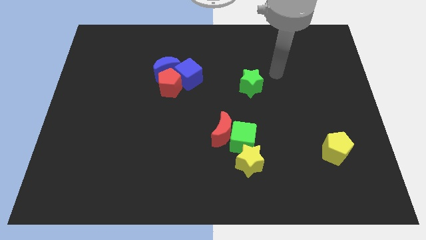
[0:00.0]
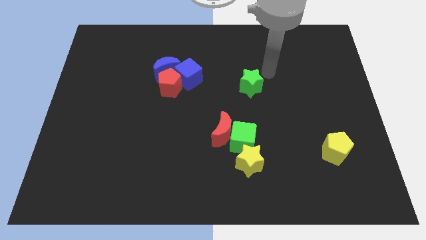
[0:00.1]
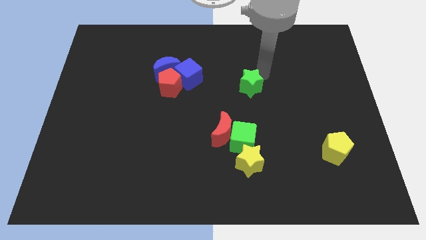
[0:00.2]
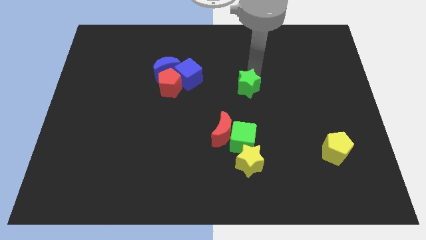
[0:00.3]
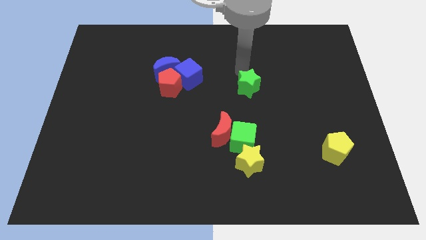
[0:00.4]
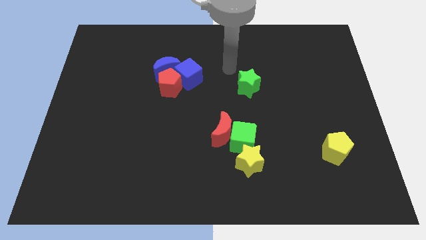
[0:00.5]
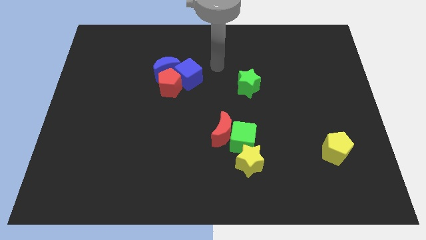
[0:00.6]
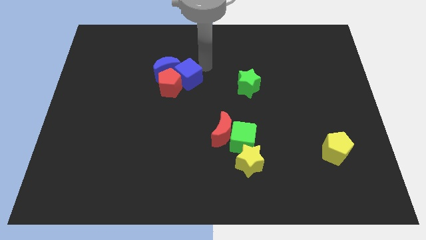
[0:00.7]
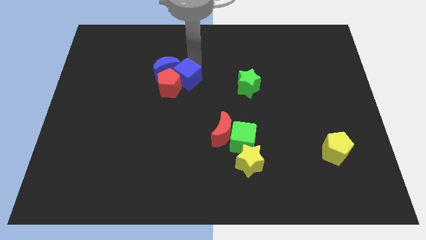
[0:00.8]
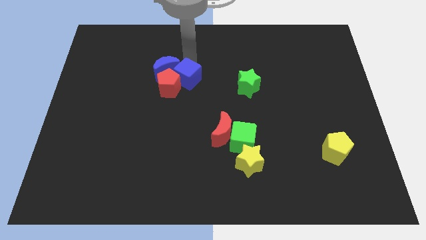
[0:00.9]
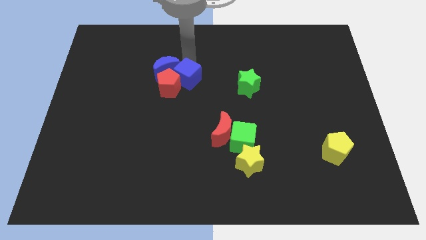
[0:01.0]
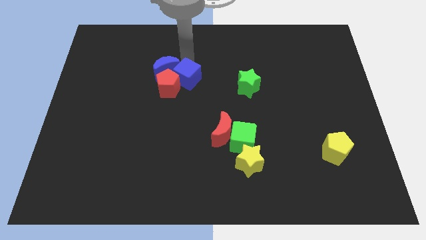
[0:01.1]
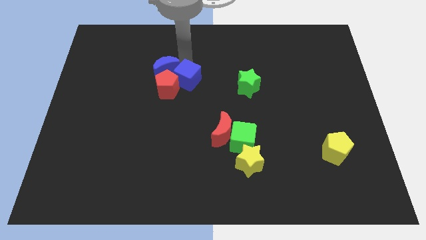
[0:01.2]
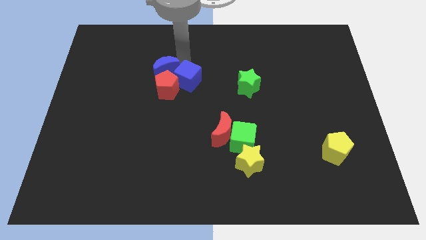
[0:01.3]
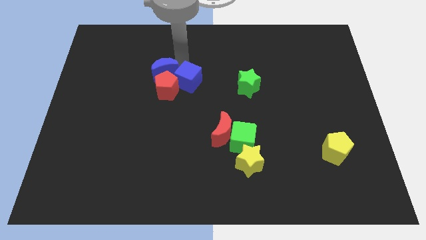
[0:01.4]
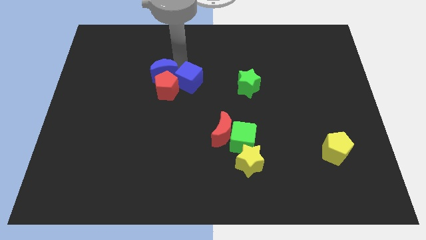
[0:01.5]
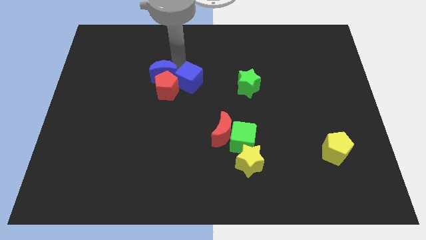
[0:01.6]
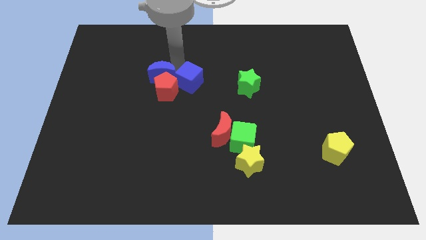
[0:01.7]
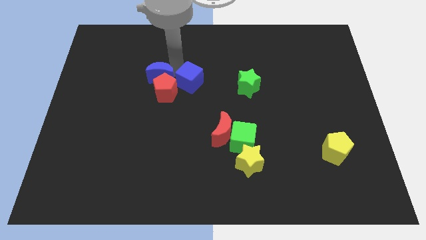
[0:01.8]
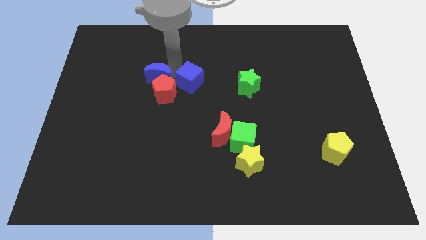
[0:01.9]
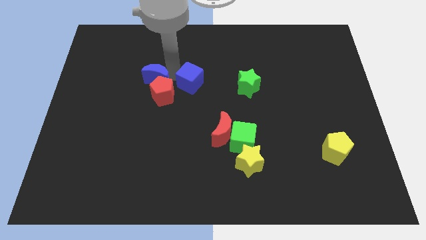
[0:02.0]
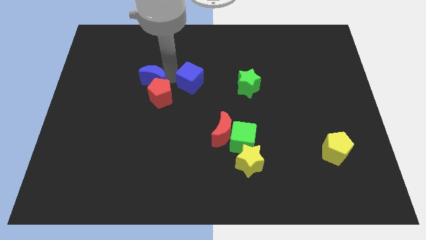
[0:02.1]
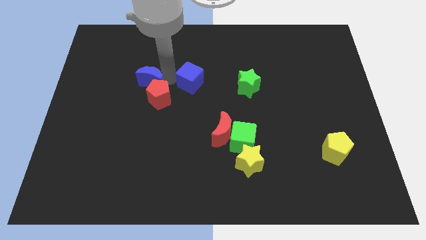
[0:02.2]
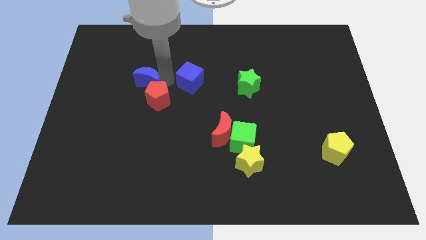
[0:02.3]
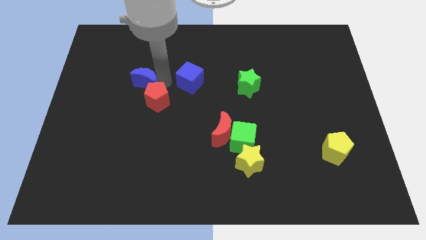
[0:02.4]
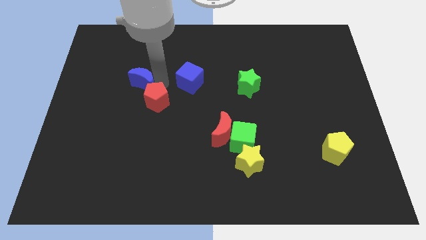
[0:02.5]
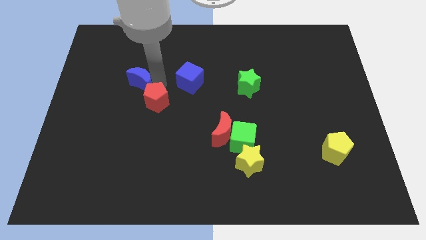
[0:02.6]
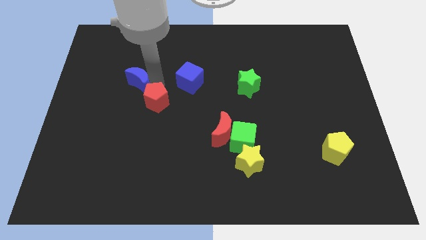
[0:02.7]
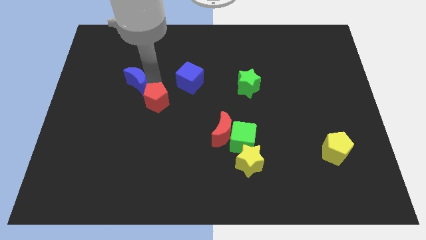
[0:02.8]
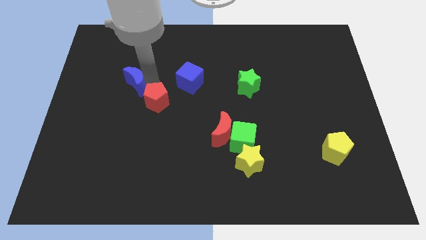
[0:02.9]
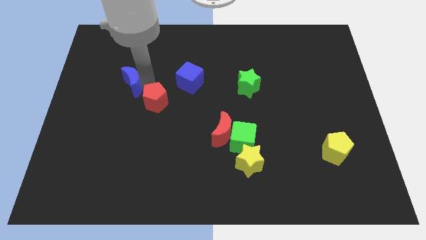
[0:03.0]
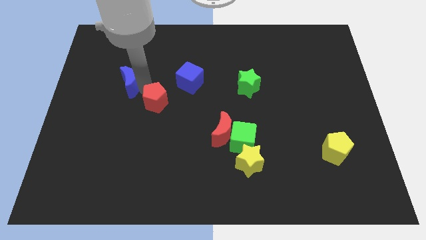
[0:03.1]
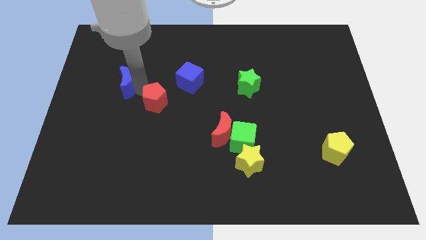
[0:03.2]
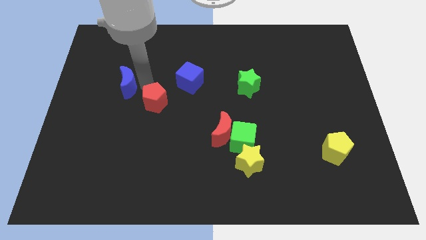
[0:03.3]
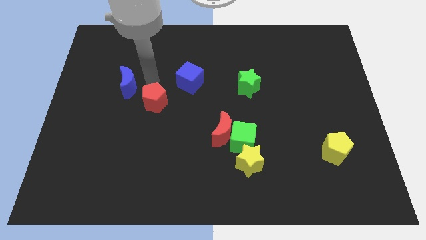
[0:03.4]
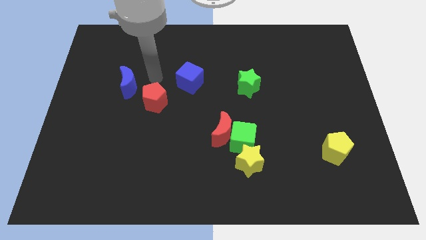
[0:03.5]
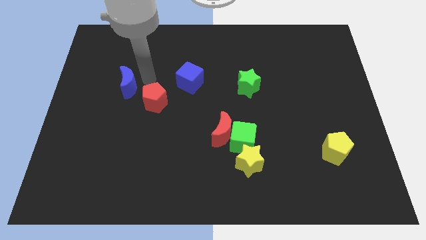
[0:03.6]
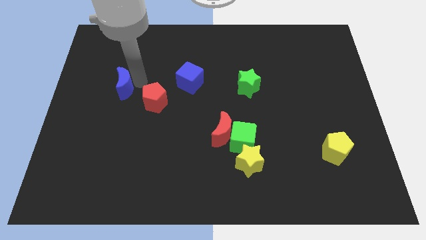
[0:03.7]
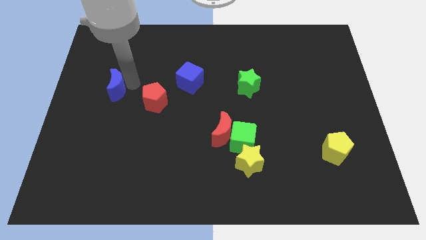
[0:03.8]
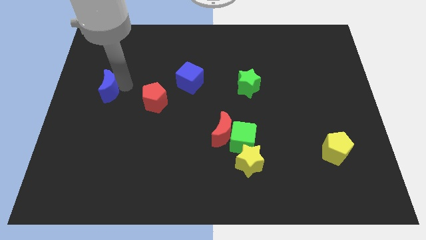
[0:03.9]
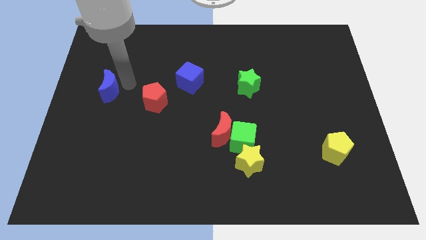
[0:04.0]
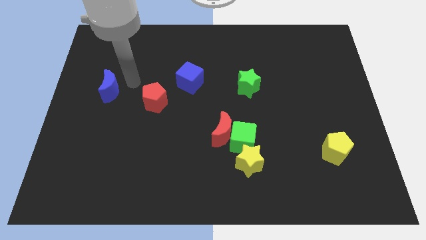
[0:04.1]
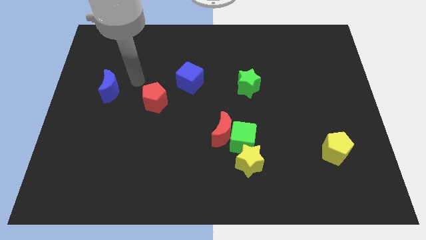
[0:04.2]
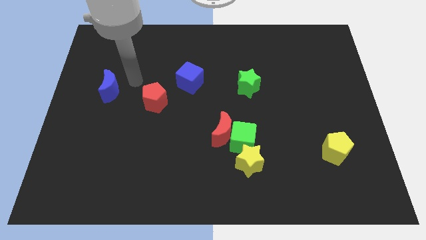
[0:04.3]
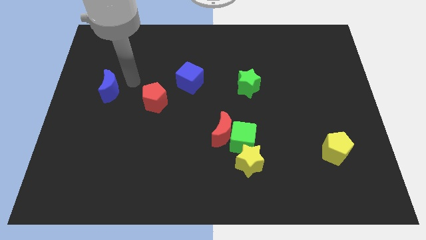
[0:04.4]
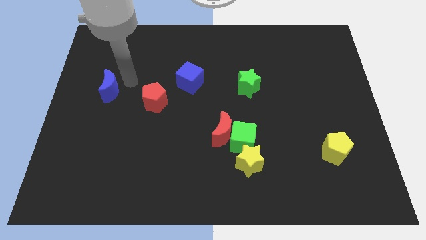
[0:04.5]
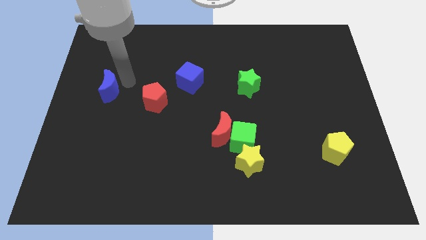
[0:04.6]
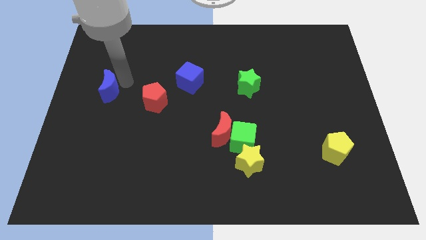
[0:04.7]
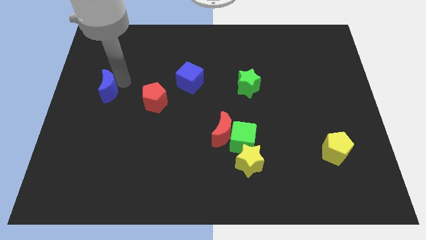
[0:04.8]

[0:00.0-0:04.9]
put the blue moon to the center left

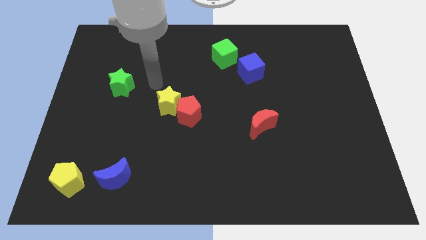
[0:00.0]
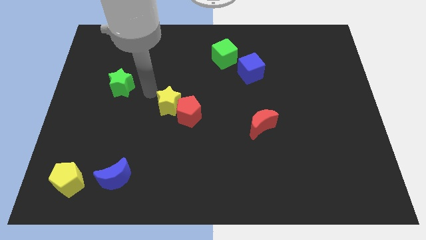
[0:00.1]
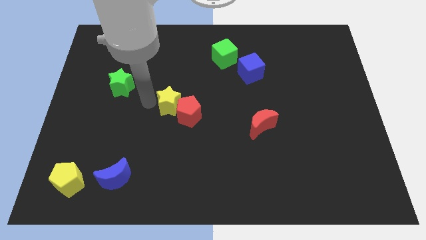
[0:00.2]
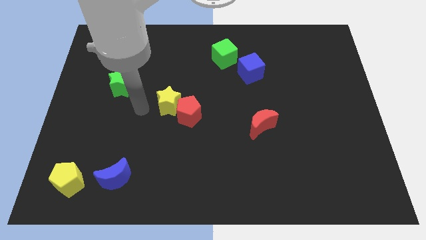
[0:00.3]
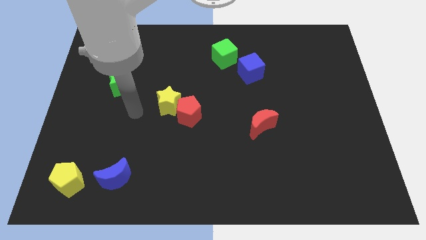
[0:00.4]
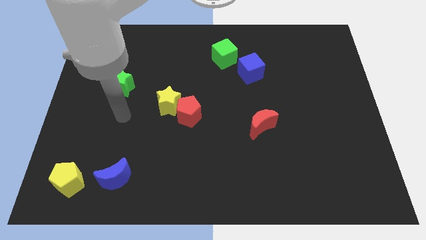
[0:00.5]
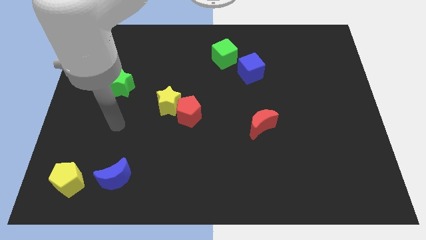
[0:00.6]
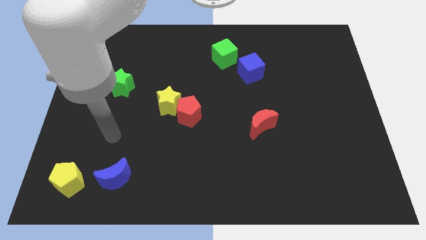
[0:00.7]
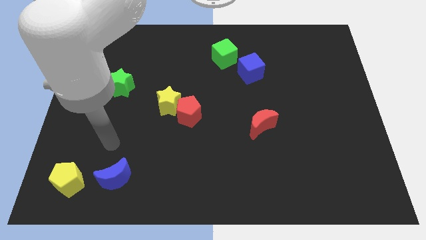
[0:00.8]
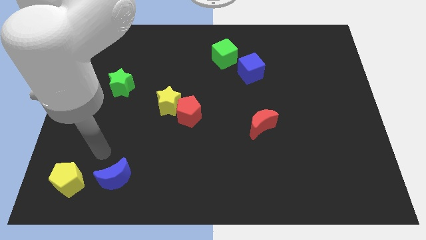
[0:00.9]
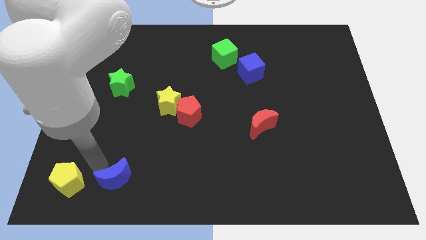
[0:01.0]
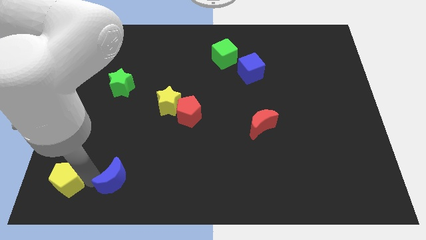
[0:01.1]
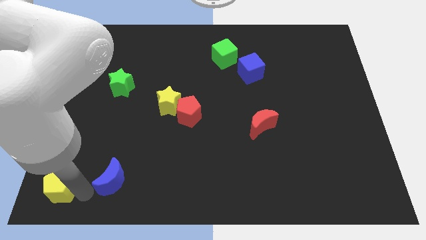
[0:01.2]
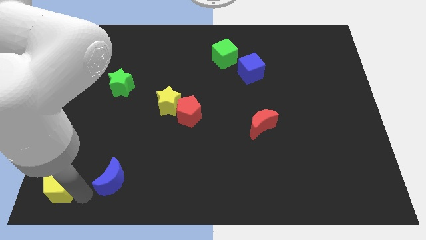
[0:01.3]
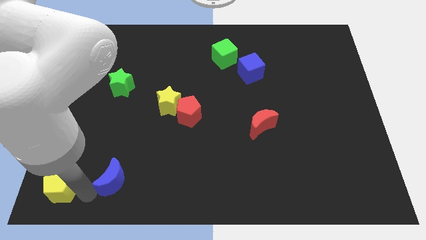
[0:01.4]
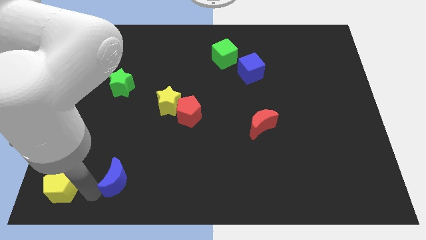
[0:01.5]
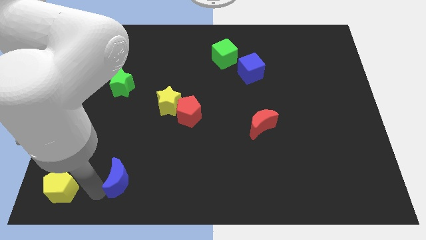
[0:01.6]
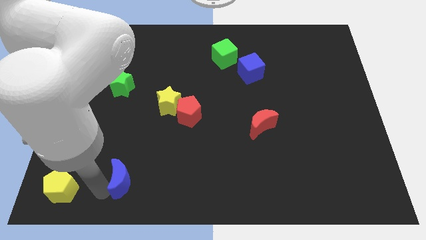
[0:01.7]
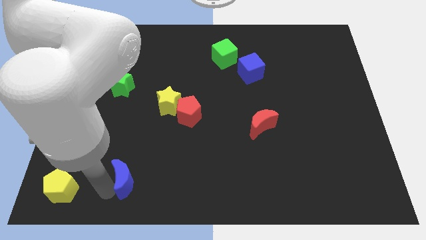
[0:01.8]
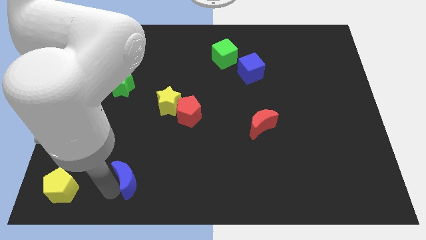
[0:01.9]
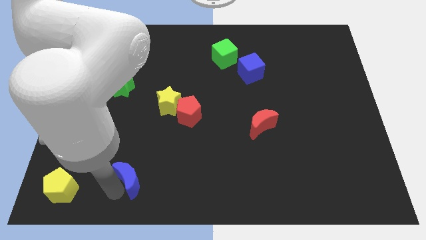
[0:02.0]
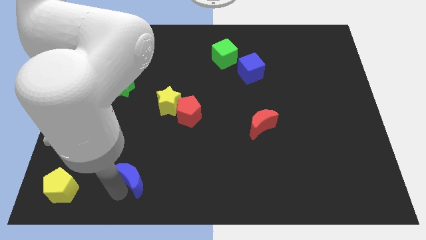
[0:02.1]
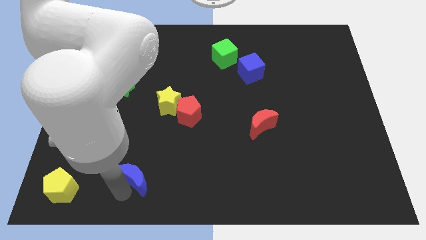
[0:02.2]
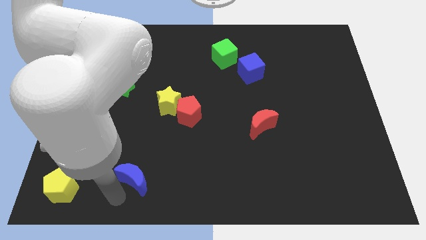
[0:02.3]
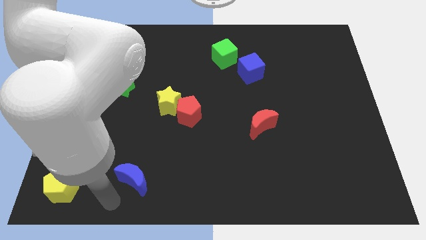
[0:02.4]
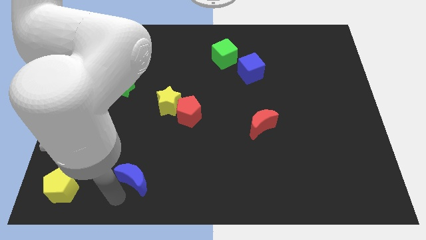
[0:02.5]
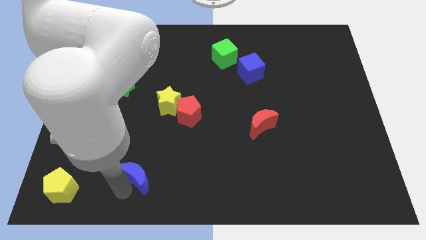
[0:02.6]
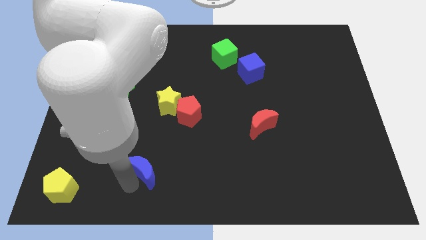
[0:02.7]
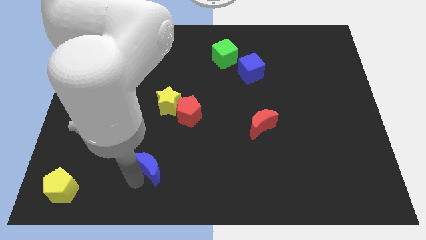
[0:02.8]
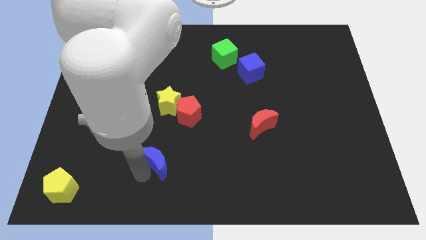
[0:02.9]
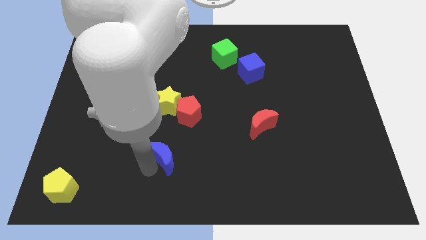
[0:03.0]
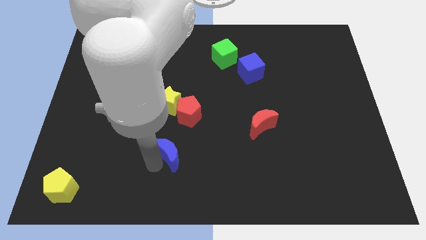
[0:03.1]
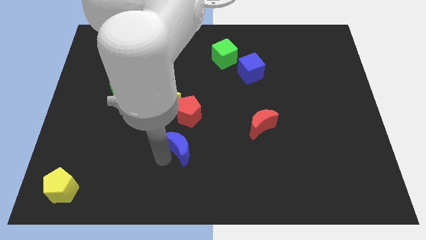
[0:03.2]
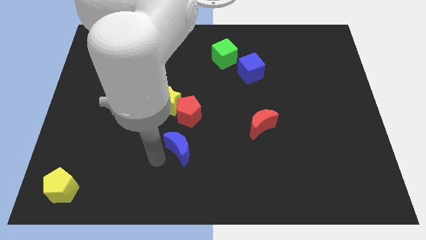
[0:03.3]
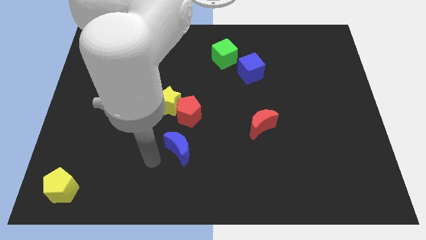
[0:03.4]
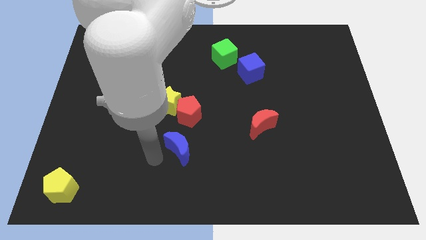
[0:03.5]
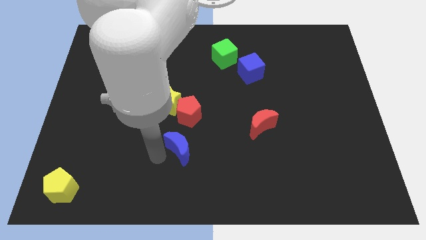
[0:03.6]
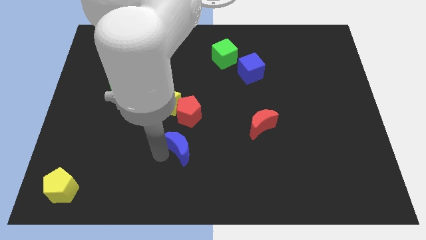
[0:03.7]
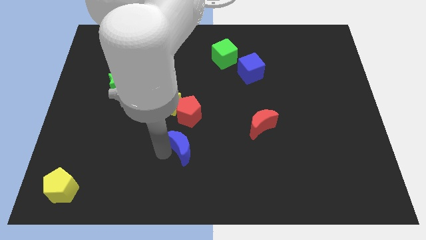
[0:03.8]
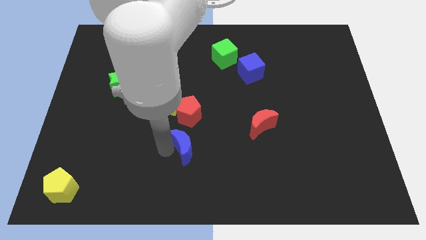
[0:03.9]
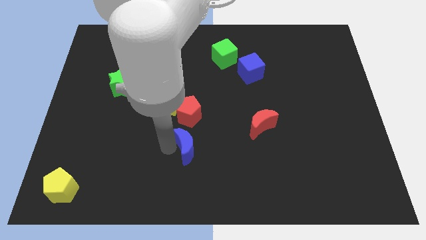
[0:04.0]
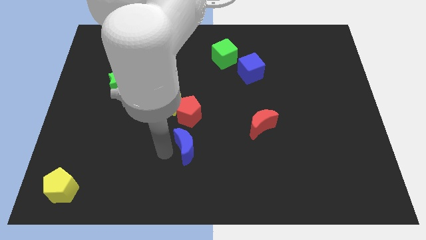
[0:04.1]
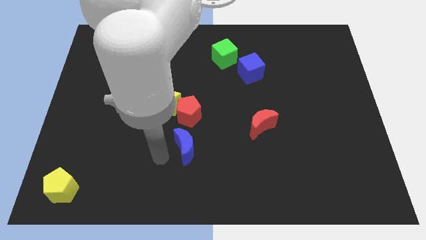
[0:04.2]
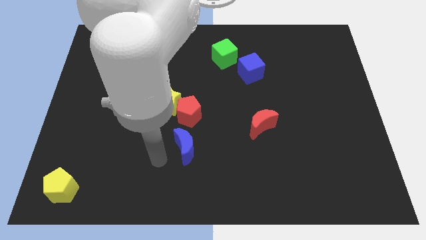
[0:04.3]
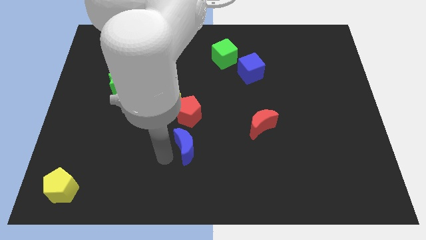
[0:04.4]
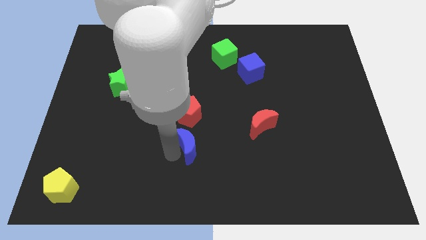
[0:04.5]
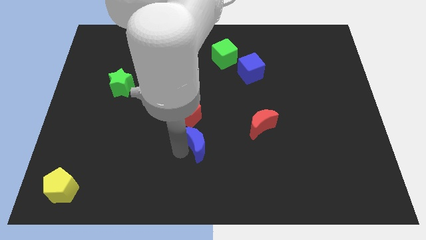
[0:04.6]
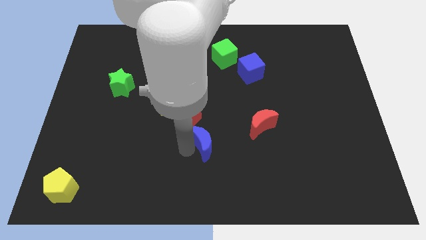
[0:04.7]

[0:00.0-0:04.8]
slide the blue moon to the middle
